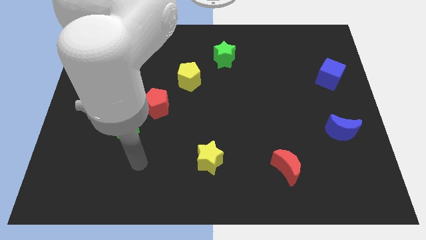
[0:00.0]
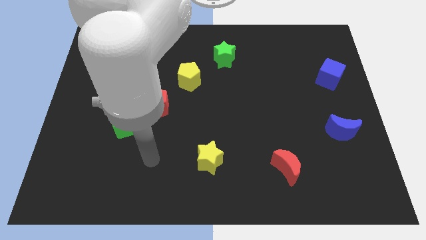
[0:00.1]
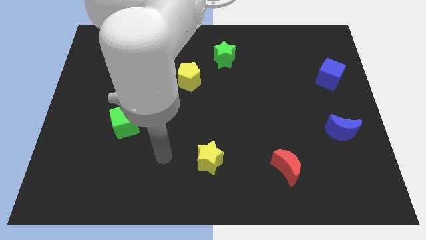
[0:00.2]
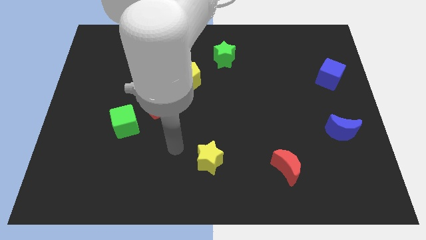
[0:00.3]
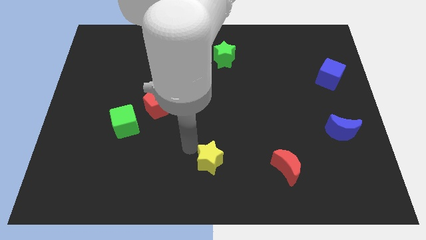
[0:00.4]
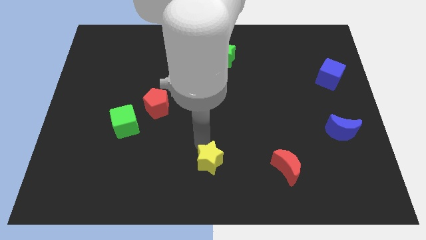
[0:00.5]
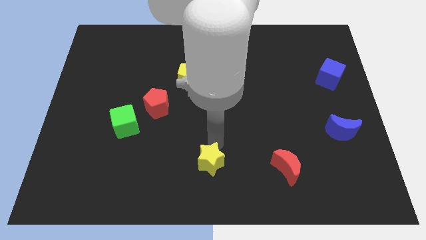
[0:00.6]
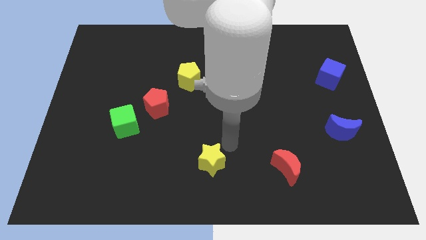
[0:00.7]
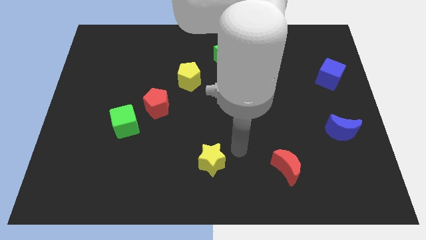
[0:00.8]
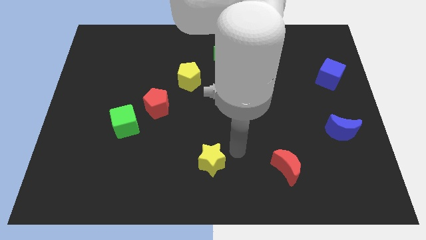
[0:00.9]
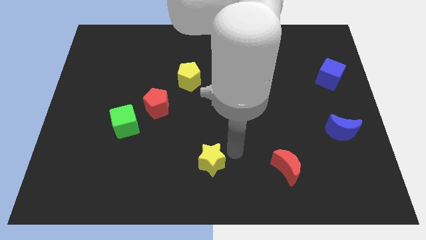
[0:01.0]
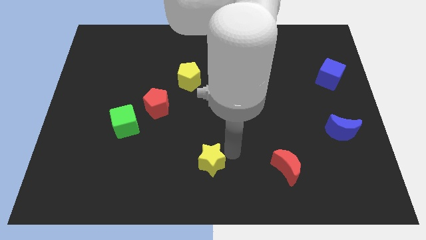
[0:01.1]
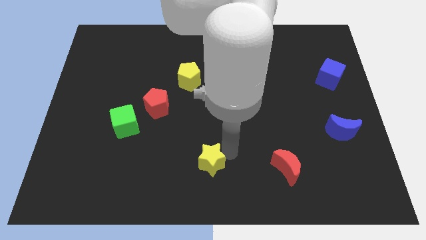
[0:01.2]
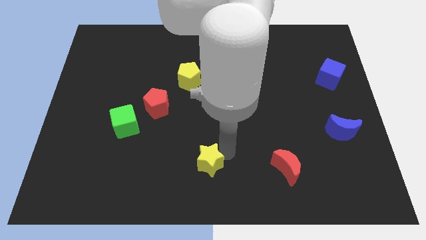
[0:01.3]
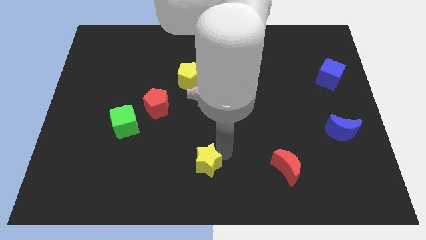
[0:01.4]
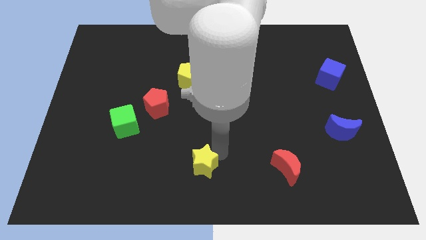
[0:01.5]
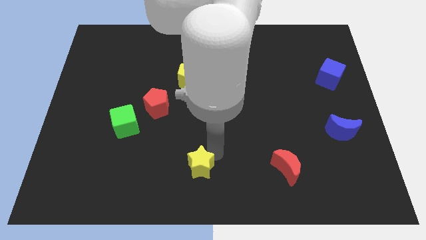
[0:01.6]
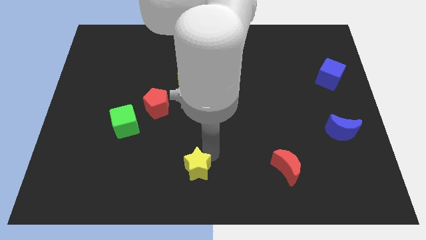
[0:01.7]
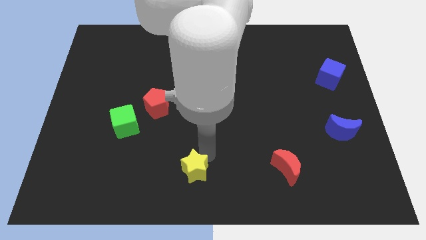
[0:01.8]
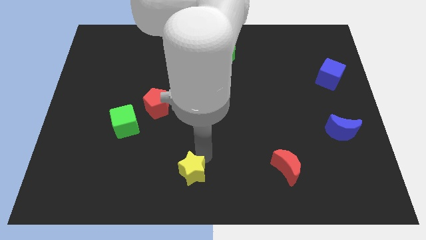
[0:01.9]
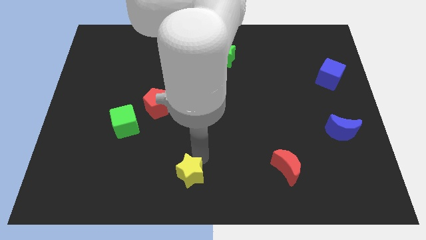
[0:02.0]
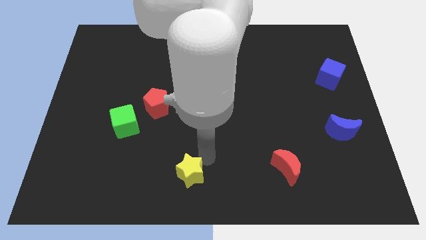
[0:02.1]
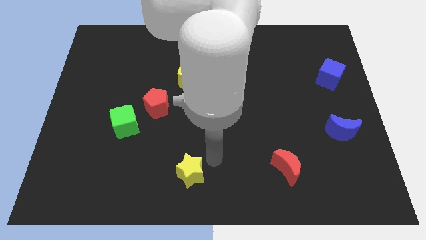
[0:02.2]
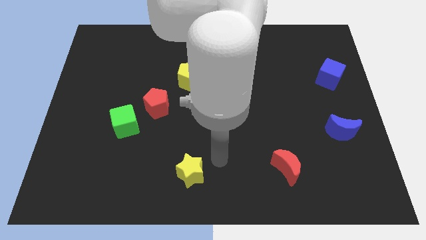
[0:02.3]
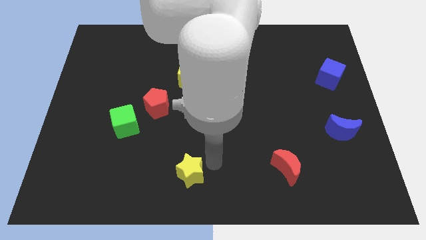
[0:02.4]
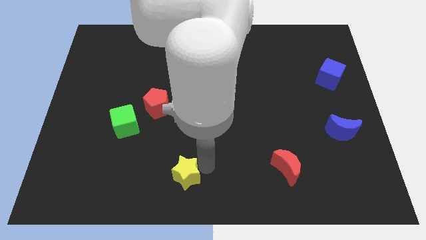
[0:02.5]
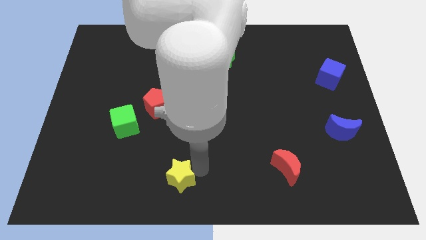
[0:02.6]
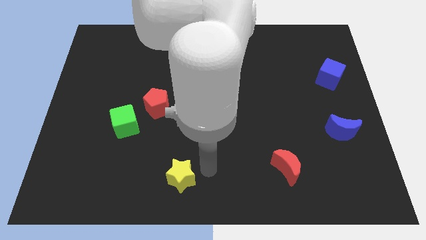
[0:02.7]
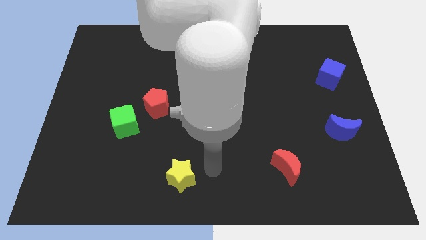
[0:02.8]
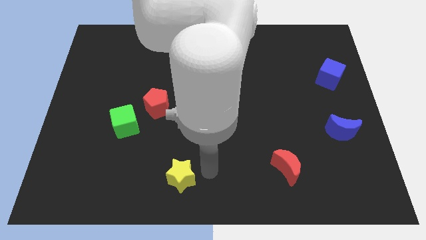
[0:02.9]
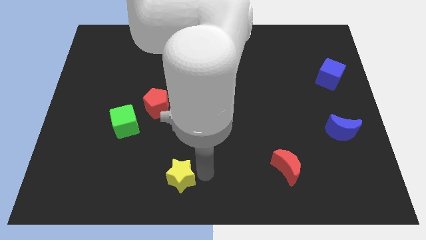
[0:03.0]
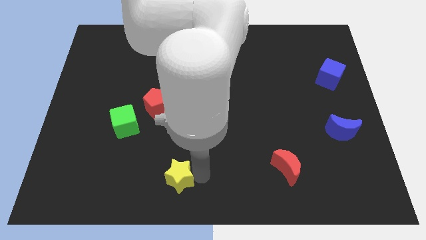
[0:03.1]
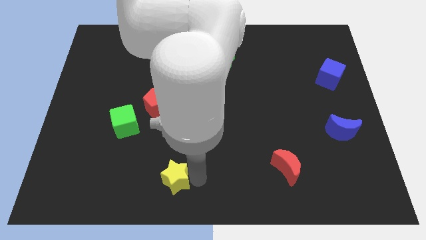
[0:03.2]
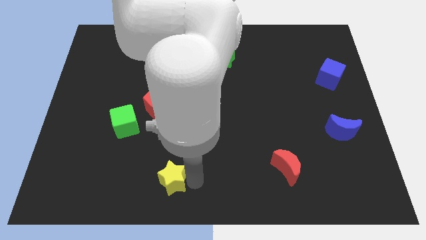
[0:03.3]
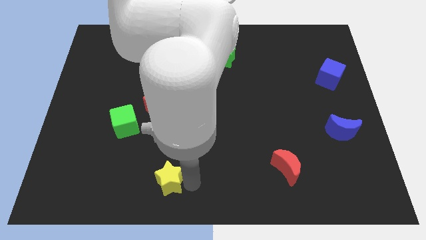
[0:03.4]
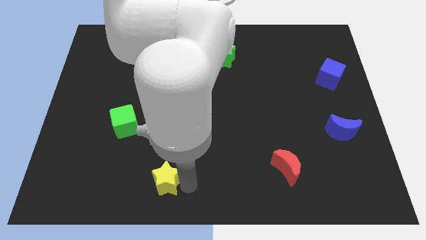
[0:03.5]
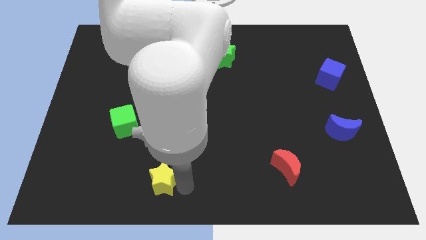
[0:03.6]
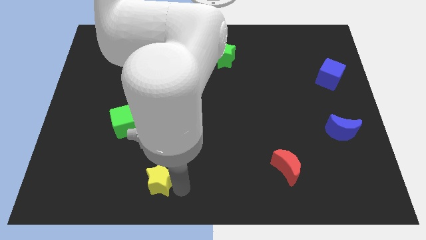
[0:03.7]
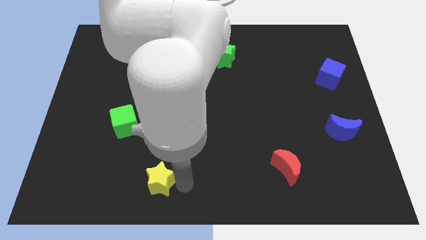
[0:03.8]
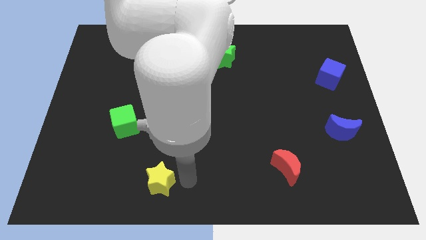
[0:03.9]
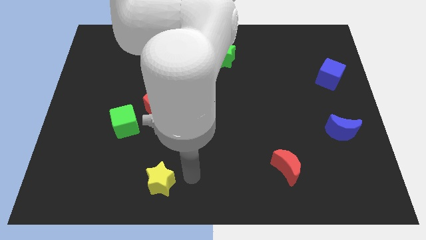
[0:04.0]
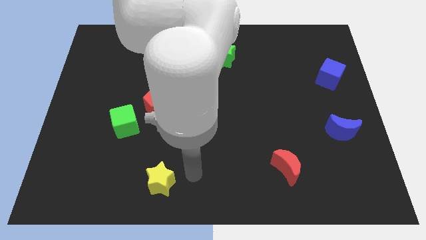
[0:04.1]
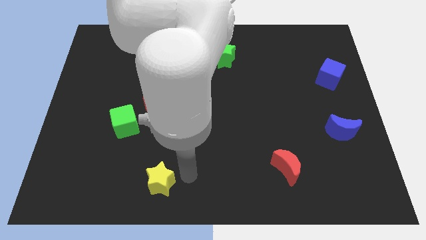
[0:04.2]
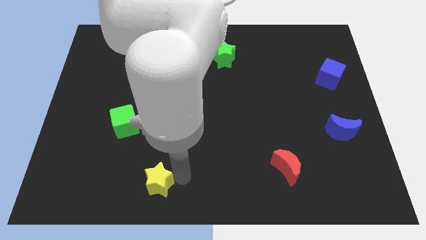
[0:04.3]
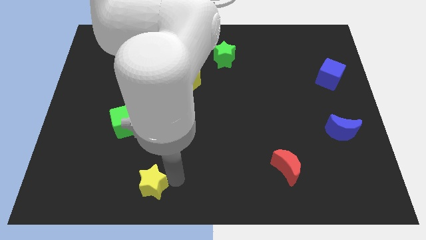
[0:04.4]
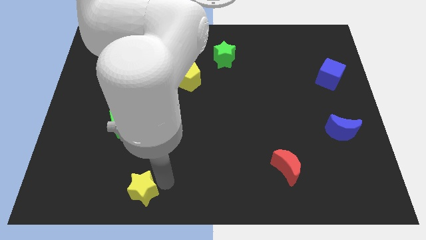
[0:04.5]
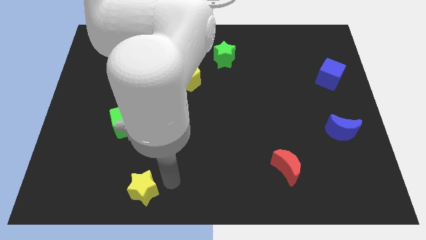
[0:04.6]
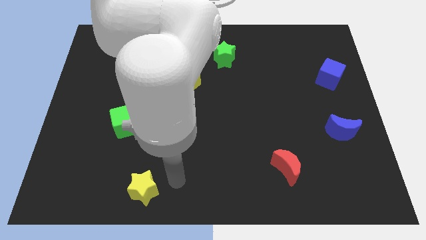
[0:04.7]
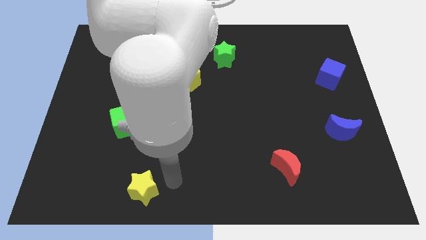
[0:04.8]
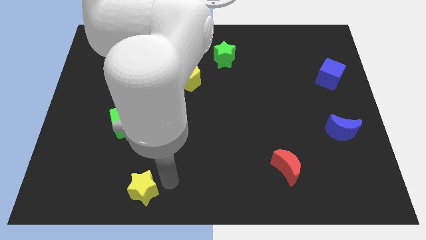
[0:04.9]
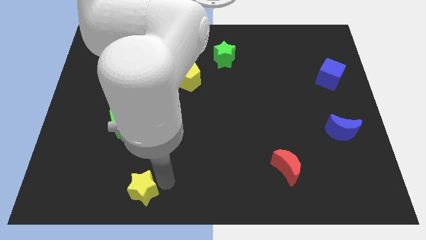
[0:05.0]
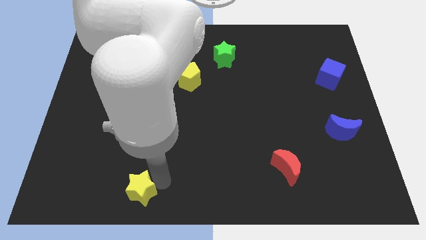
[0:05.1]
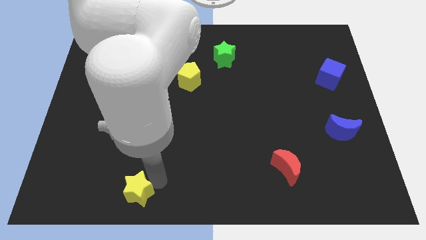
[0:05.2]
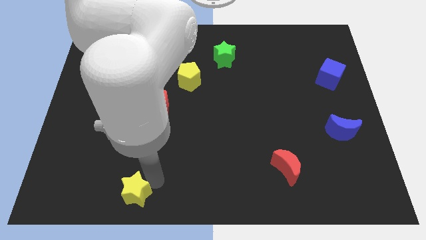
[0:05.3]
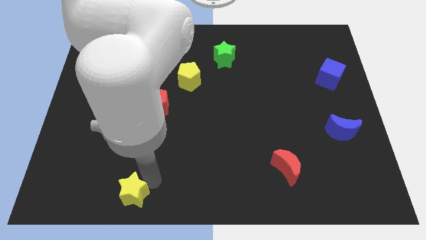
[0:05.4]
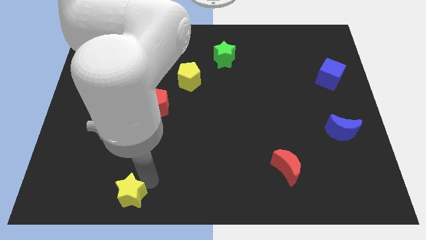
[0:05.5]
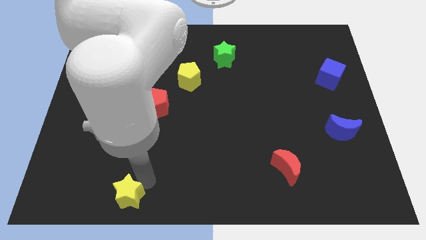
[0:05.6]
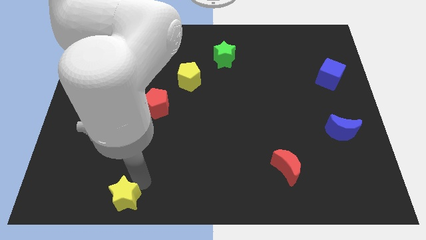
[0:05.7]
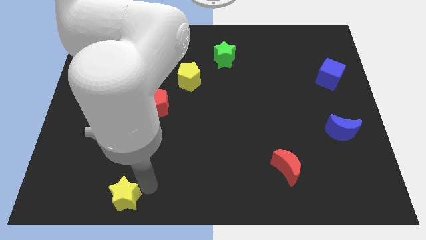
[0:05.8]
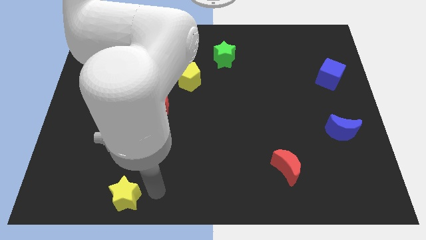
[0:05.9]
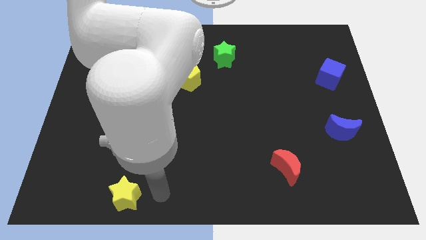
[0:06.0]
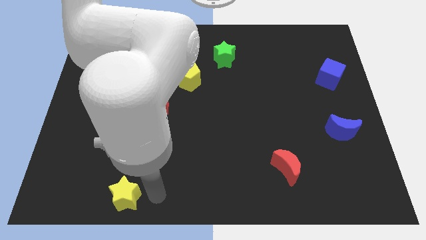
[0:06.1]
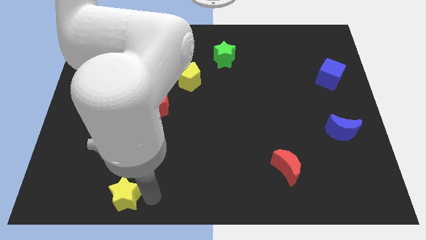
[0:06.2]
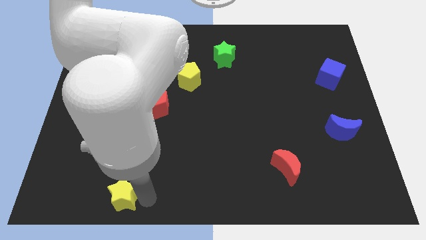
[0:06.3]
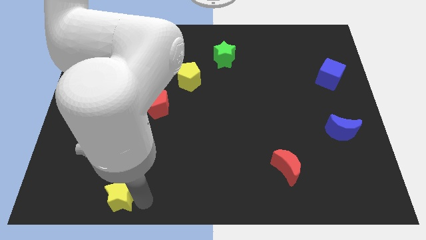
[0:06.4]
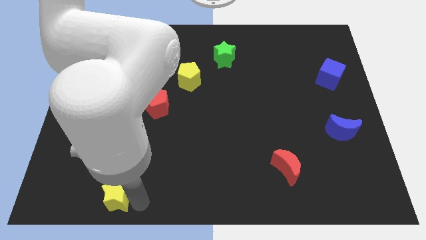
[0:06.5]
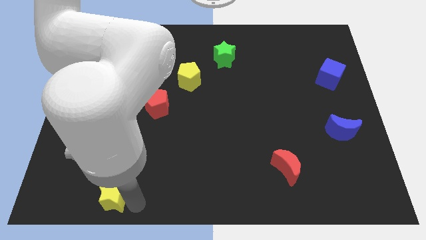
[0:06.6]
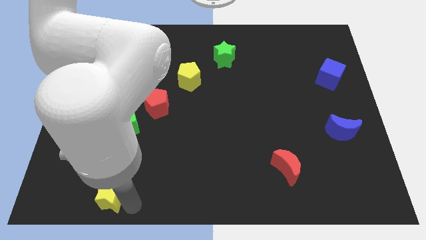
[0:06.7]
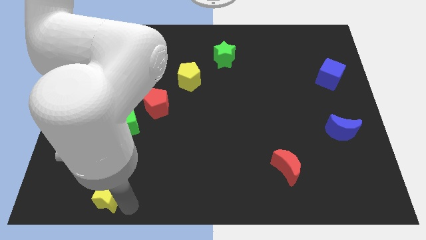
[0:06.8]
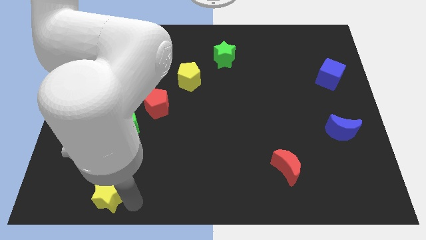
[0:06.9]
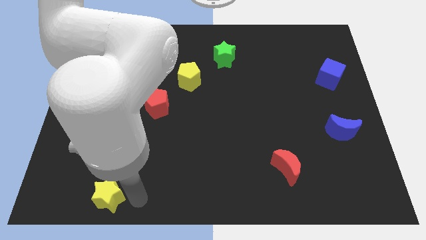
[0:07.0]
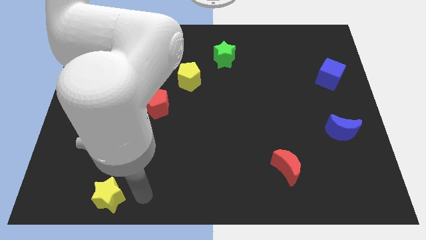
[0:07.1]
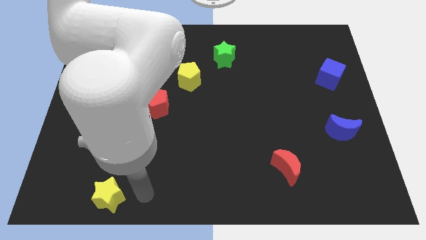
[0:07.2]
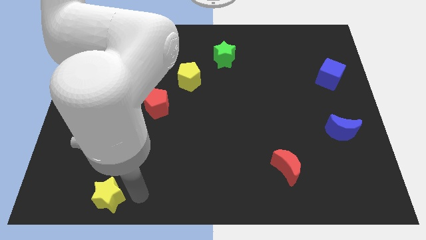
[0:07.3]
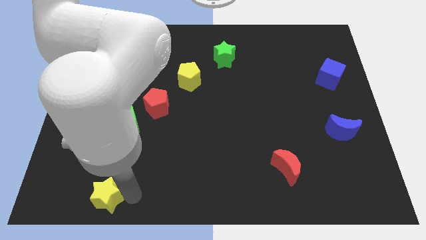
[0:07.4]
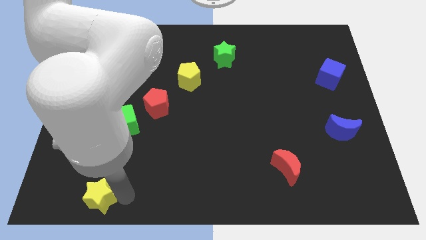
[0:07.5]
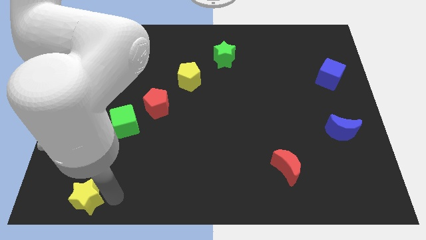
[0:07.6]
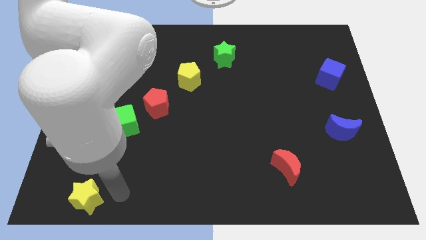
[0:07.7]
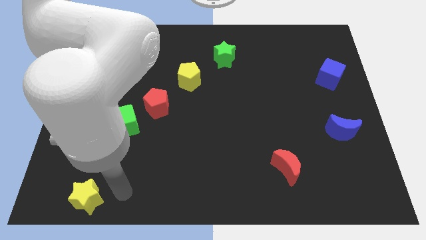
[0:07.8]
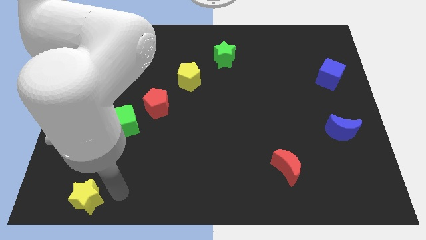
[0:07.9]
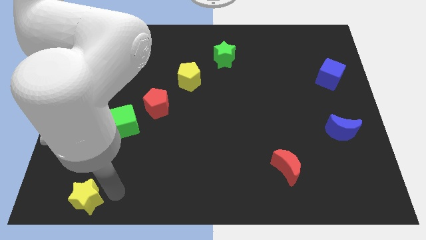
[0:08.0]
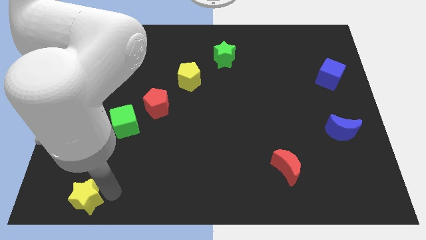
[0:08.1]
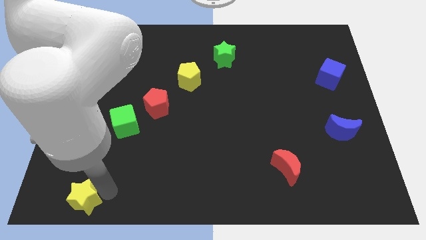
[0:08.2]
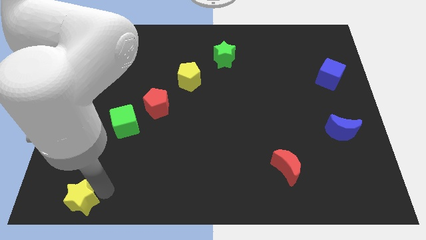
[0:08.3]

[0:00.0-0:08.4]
put the yellow star to the lower left corner
